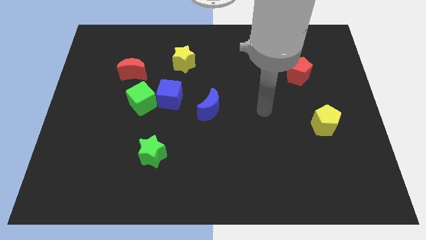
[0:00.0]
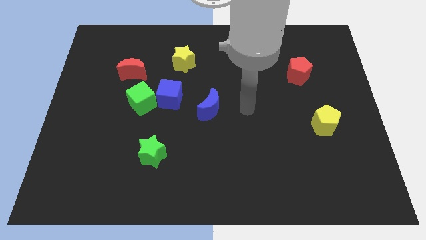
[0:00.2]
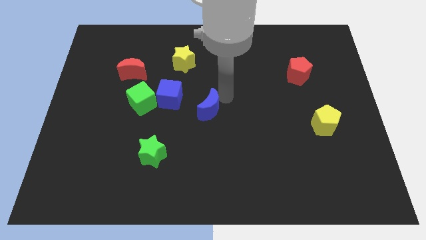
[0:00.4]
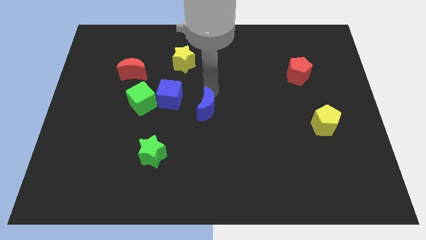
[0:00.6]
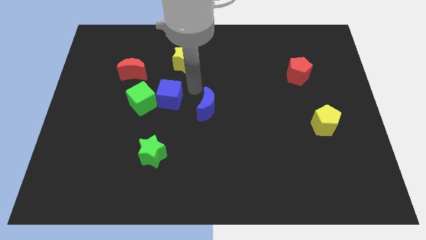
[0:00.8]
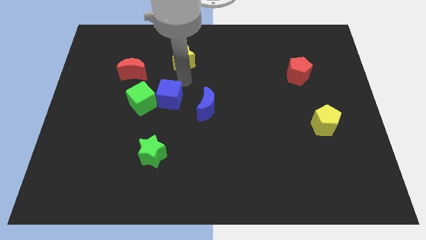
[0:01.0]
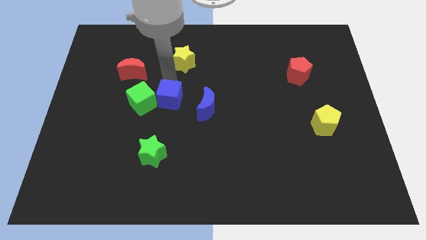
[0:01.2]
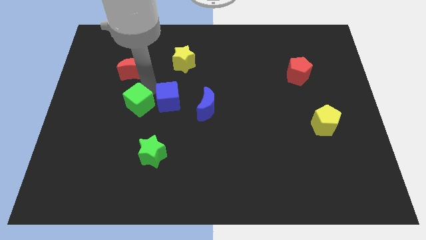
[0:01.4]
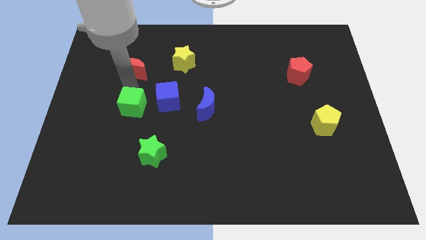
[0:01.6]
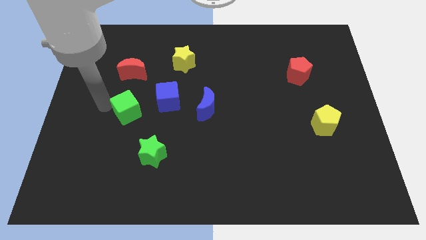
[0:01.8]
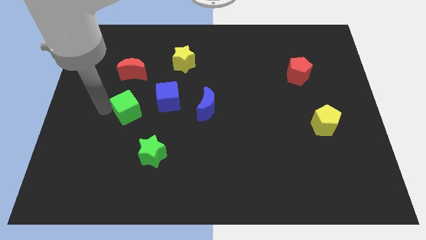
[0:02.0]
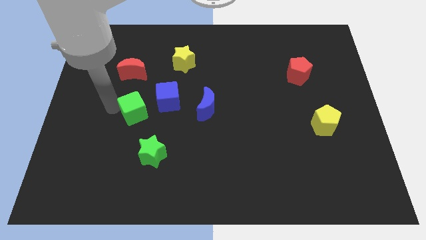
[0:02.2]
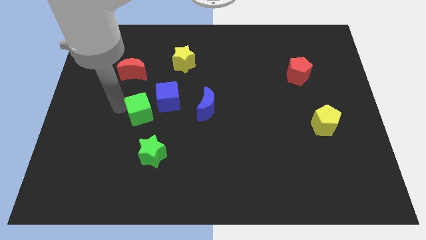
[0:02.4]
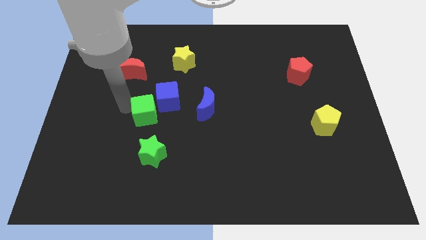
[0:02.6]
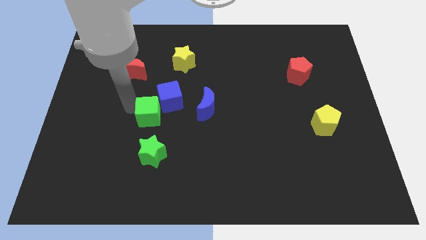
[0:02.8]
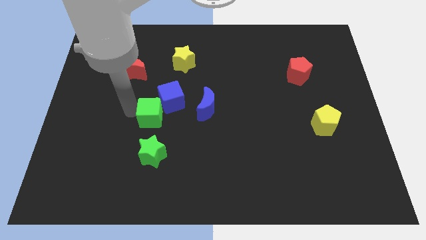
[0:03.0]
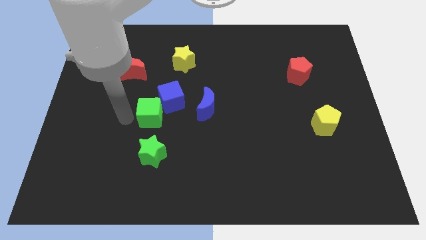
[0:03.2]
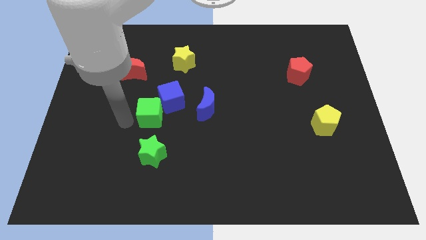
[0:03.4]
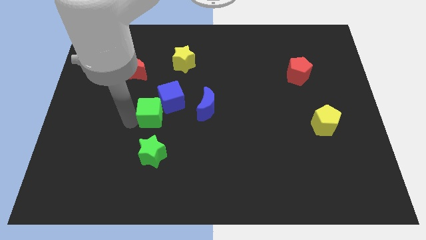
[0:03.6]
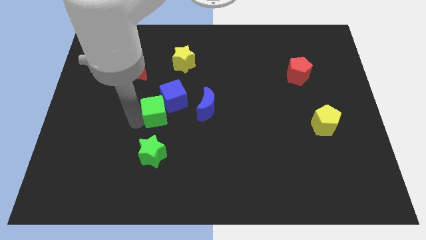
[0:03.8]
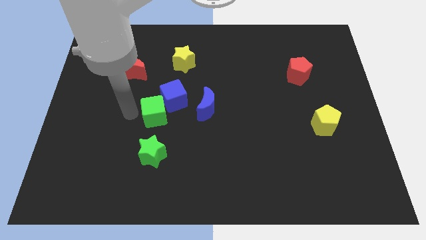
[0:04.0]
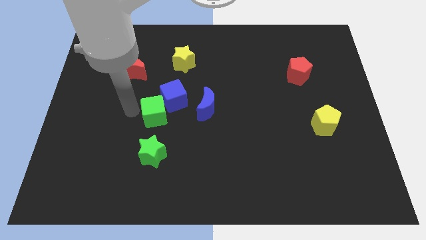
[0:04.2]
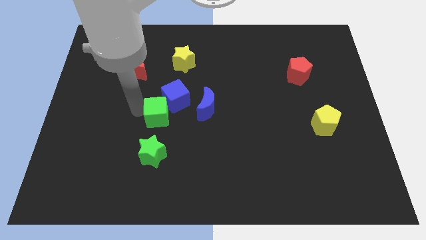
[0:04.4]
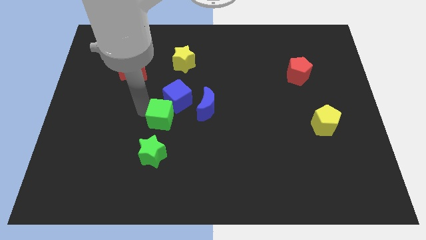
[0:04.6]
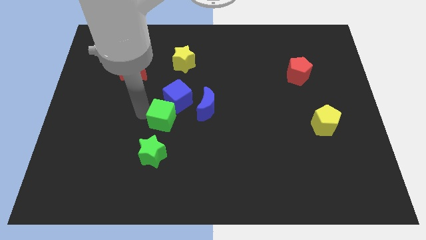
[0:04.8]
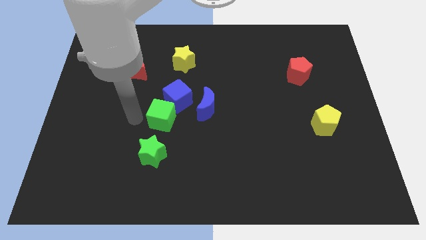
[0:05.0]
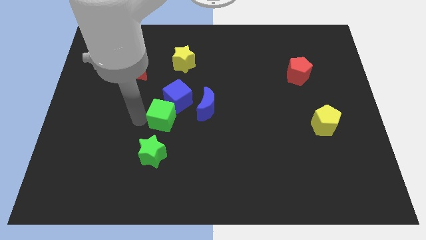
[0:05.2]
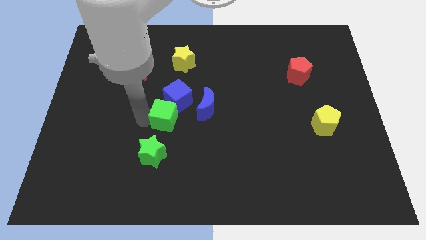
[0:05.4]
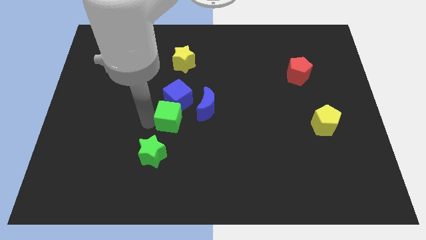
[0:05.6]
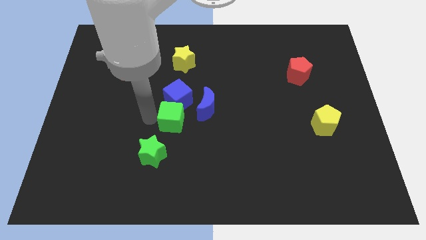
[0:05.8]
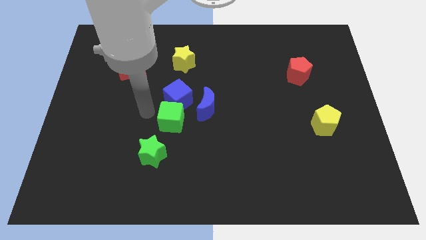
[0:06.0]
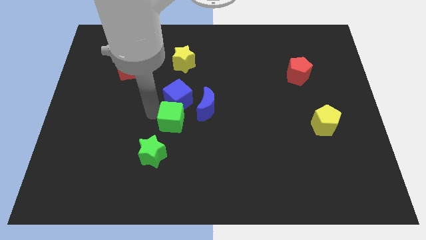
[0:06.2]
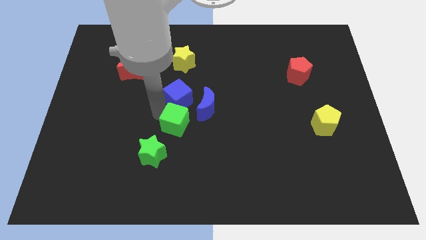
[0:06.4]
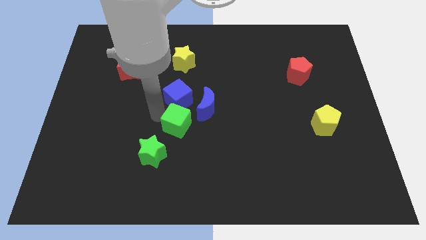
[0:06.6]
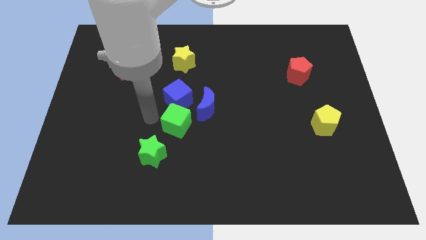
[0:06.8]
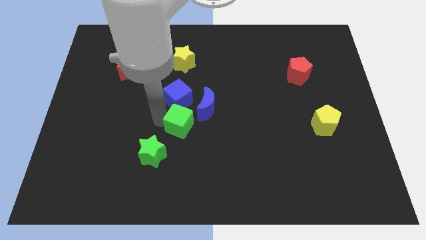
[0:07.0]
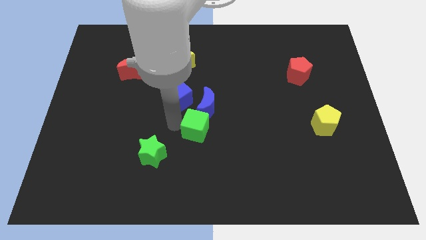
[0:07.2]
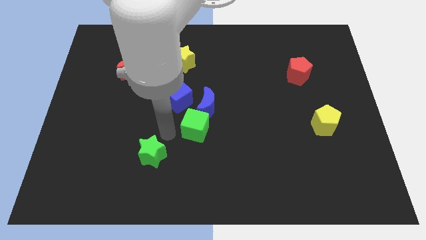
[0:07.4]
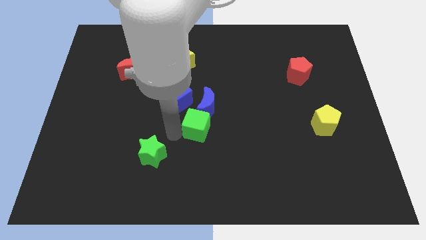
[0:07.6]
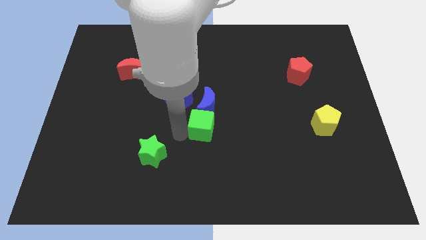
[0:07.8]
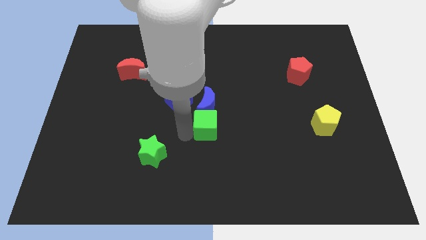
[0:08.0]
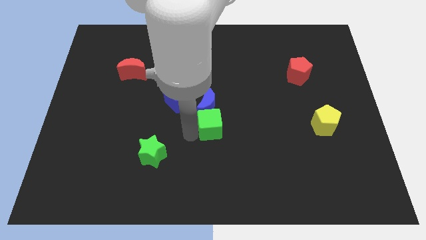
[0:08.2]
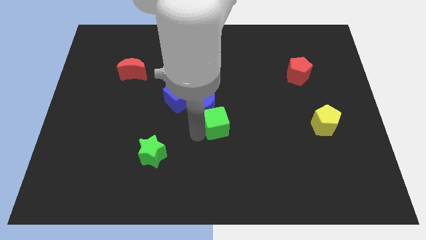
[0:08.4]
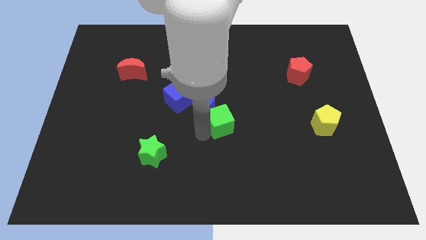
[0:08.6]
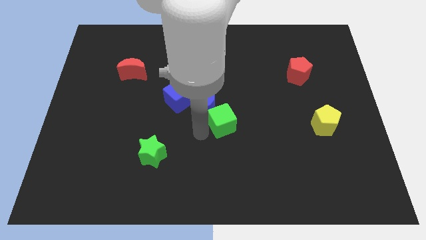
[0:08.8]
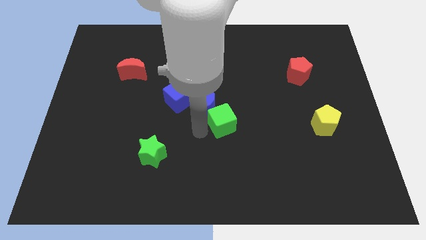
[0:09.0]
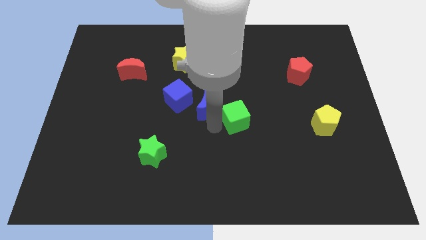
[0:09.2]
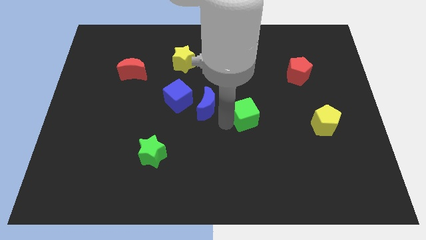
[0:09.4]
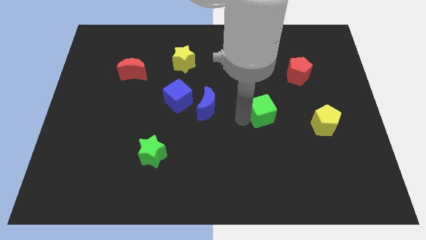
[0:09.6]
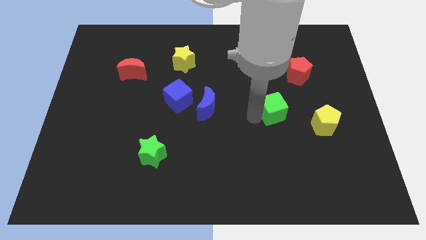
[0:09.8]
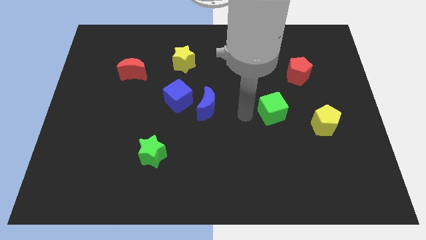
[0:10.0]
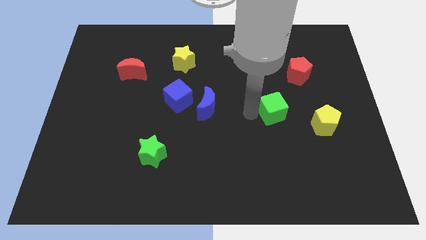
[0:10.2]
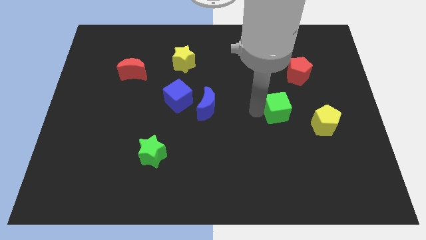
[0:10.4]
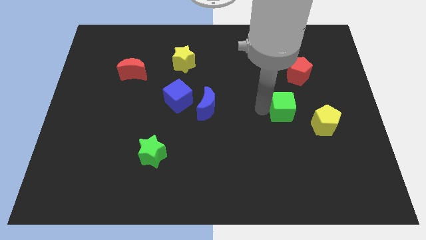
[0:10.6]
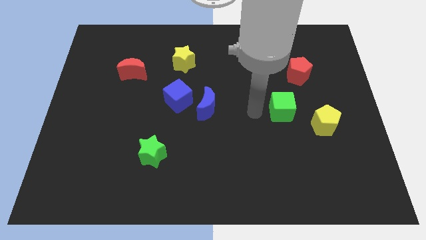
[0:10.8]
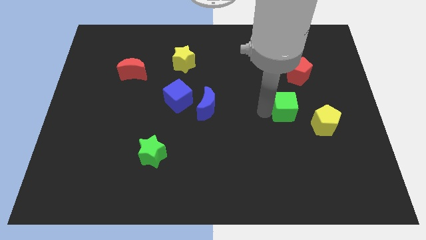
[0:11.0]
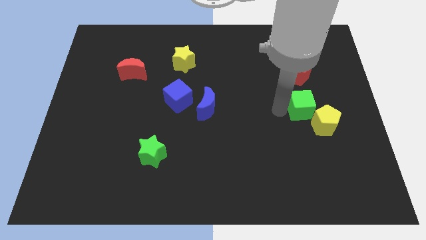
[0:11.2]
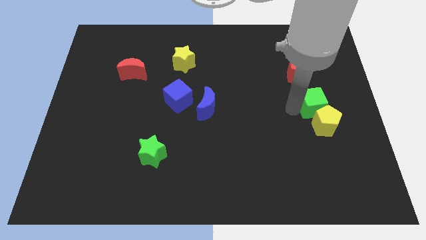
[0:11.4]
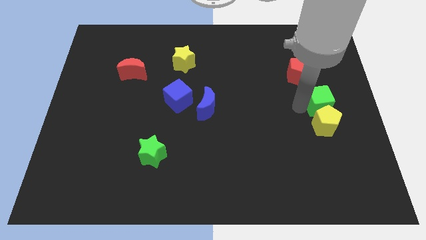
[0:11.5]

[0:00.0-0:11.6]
move the green cube to the right side of the board

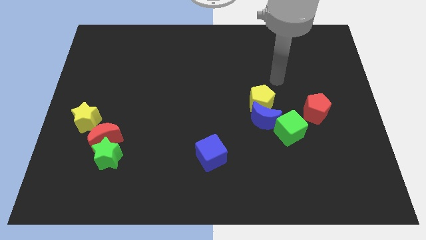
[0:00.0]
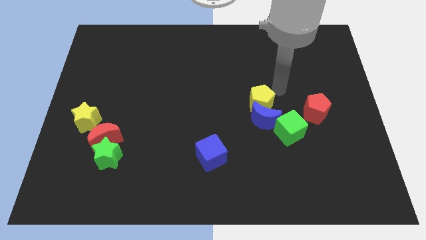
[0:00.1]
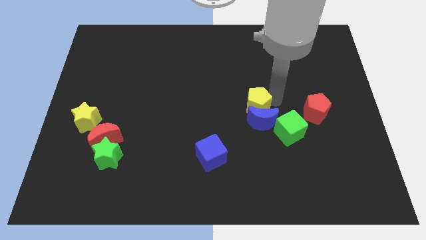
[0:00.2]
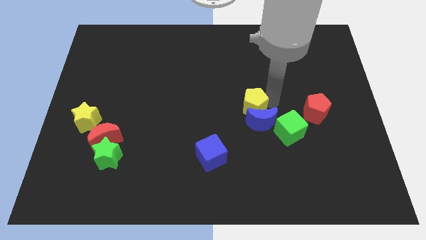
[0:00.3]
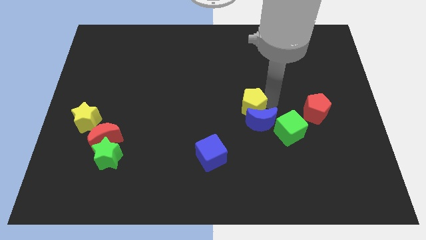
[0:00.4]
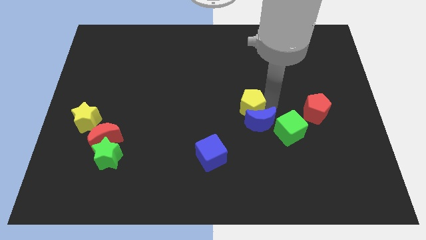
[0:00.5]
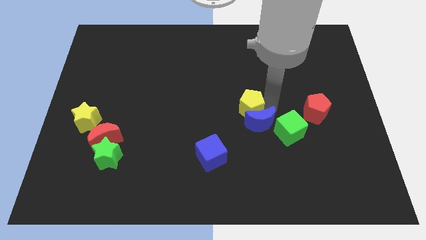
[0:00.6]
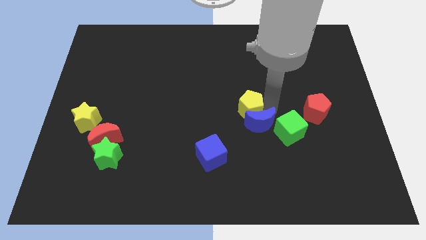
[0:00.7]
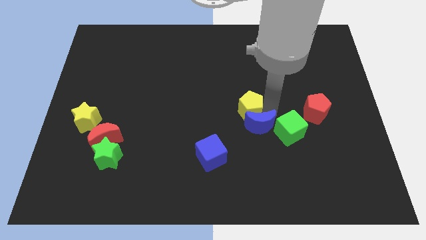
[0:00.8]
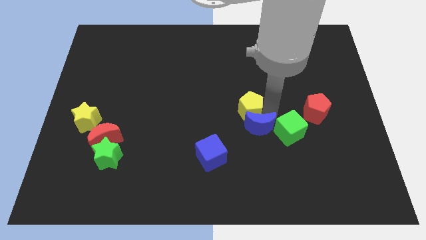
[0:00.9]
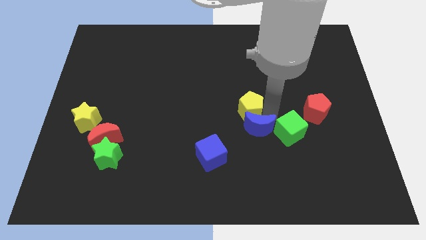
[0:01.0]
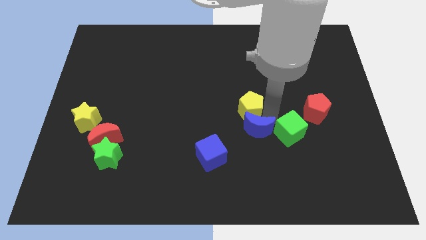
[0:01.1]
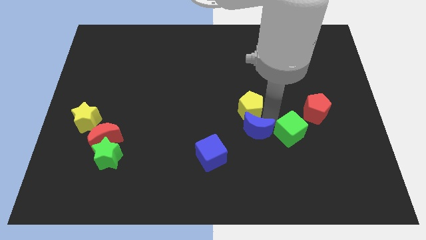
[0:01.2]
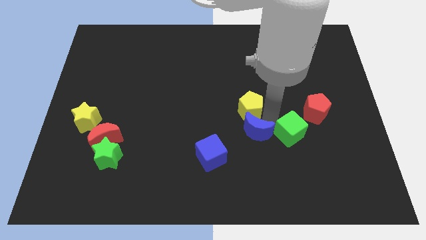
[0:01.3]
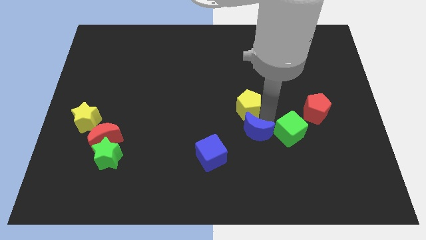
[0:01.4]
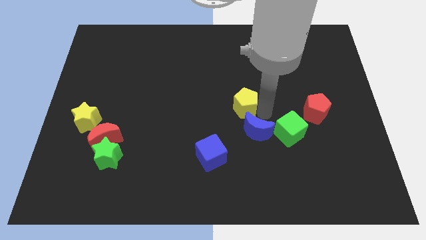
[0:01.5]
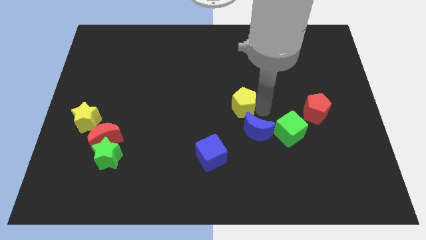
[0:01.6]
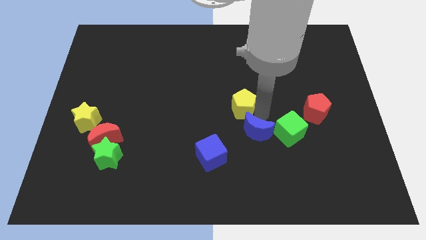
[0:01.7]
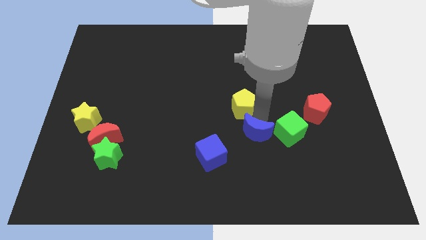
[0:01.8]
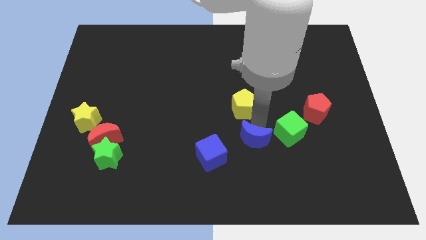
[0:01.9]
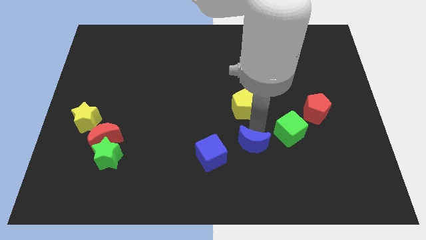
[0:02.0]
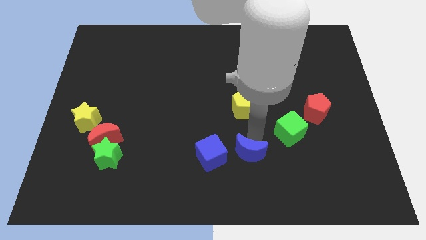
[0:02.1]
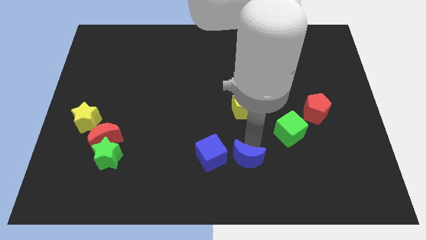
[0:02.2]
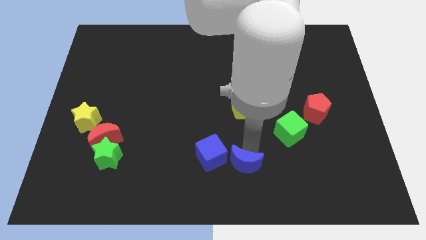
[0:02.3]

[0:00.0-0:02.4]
push the blue moon to the bottom side
